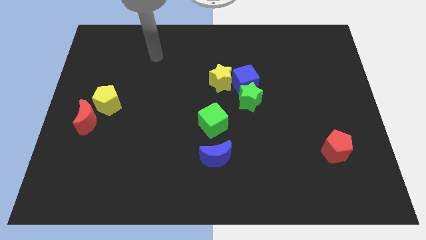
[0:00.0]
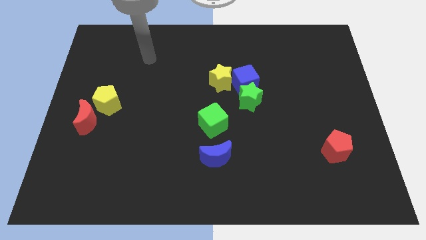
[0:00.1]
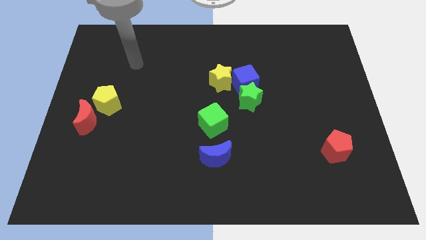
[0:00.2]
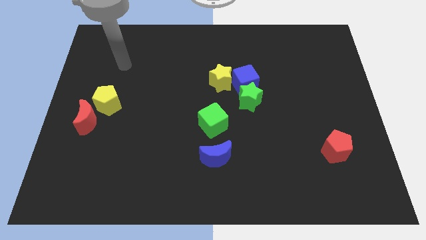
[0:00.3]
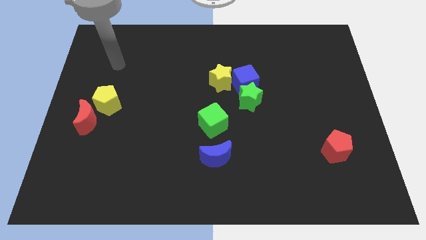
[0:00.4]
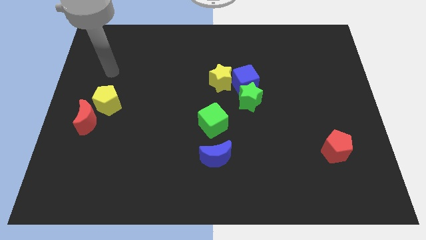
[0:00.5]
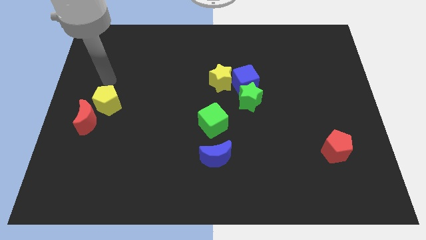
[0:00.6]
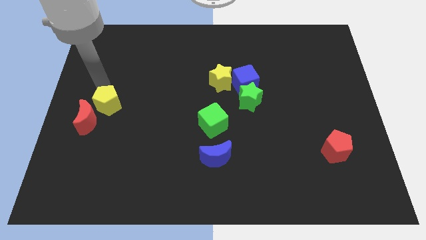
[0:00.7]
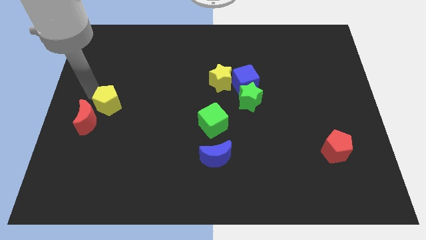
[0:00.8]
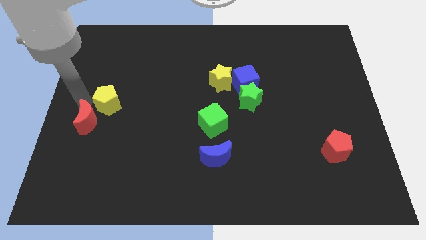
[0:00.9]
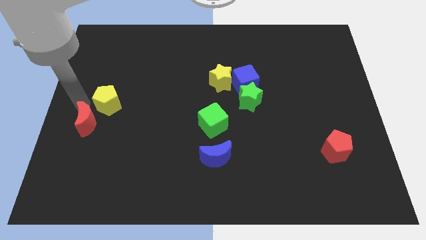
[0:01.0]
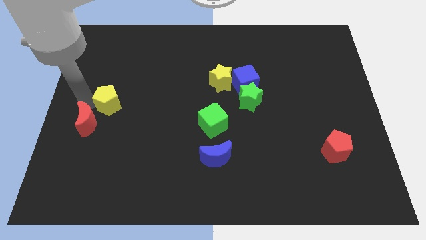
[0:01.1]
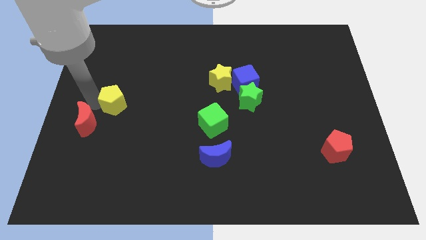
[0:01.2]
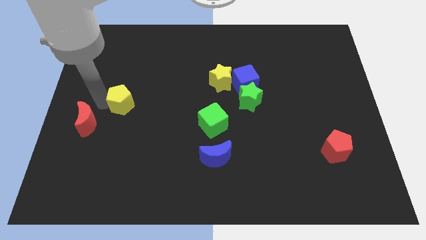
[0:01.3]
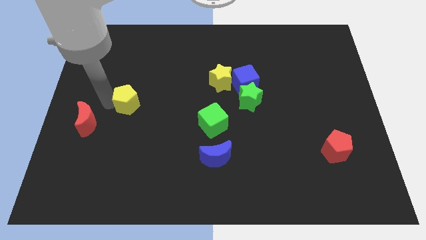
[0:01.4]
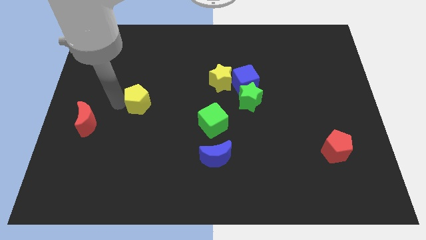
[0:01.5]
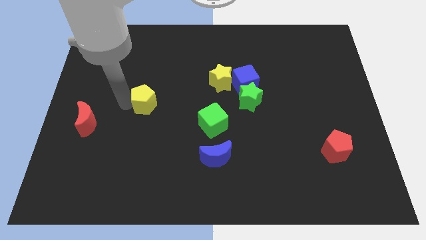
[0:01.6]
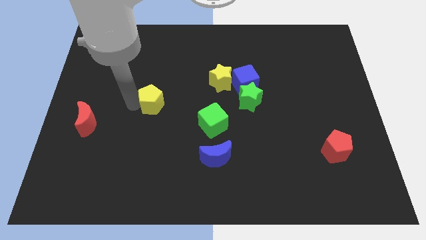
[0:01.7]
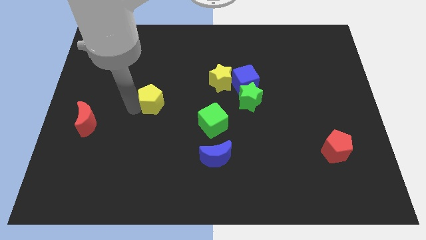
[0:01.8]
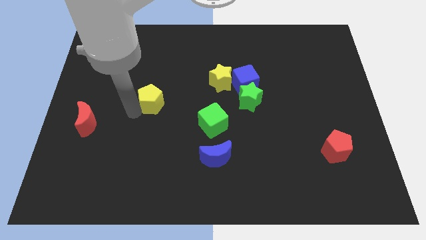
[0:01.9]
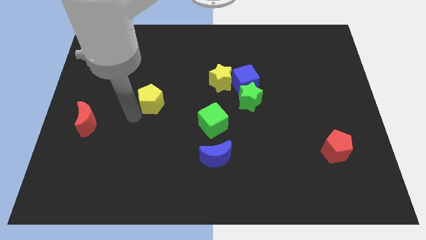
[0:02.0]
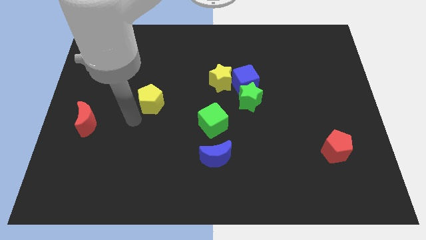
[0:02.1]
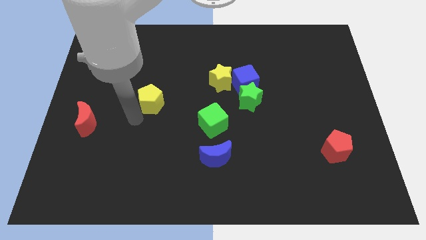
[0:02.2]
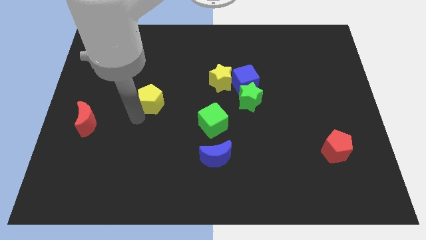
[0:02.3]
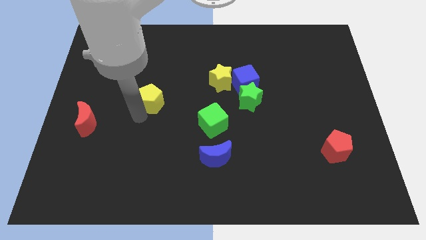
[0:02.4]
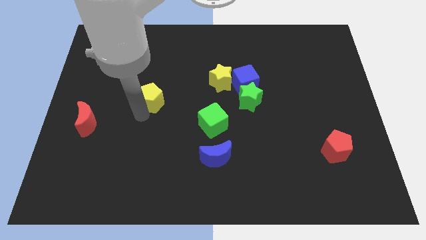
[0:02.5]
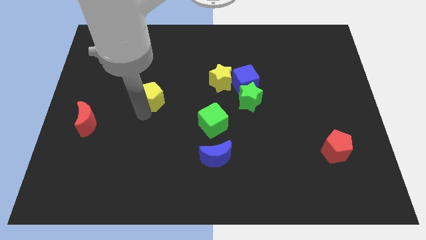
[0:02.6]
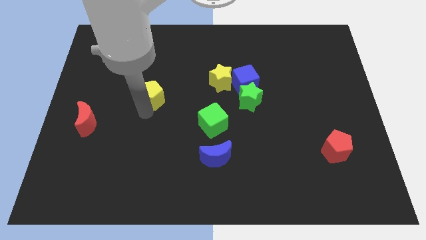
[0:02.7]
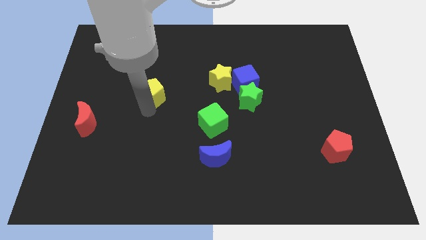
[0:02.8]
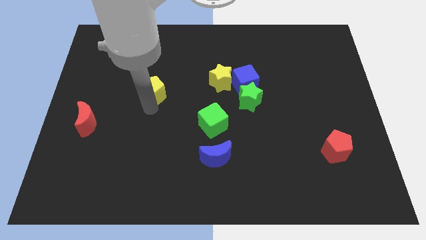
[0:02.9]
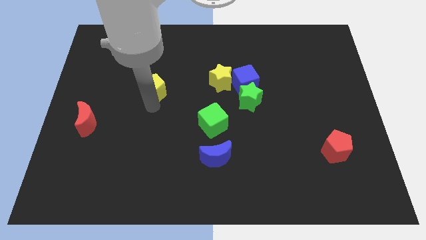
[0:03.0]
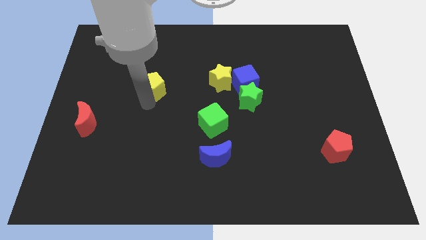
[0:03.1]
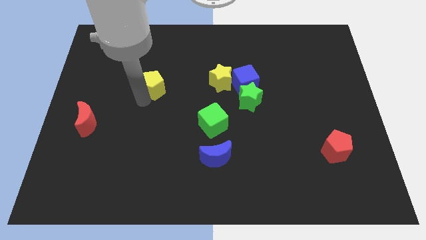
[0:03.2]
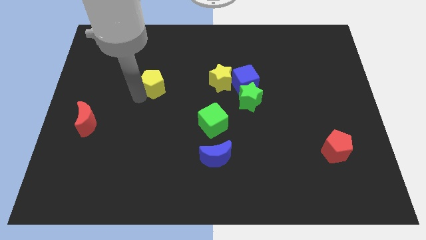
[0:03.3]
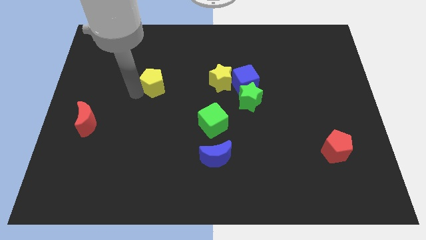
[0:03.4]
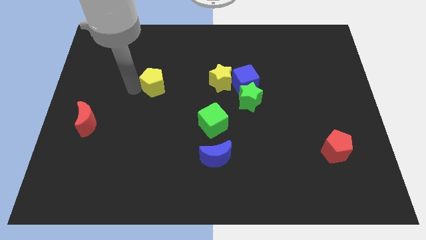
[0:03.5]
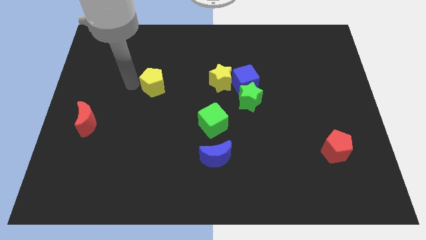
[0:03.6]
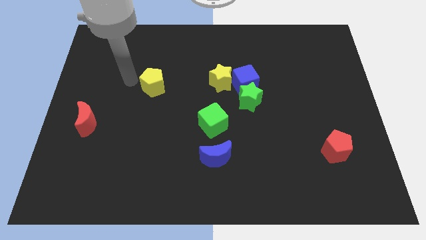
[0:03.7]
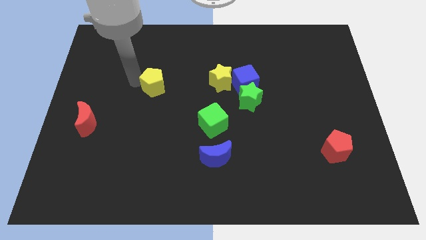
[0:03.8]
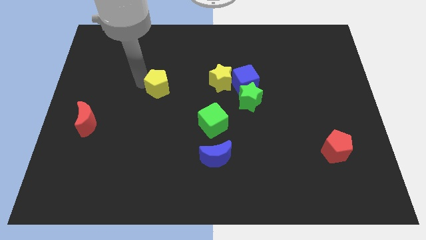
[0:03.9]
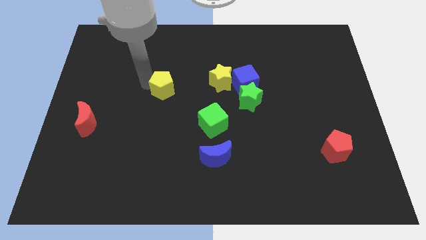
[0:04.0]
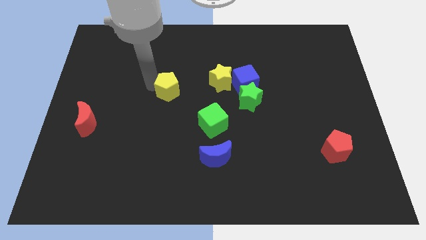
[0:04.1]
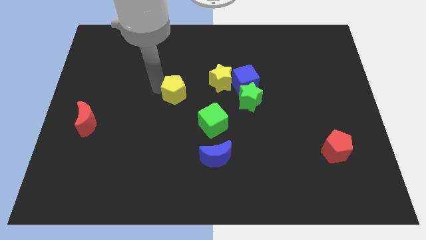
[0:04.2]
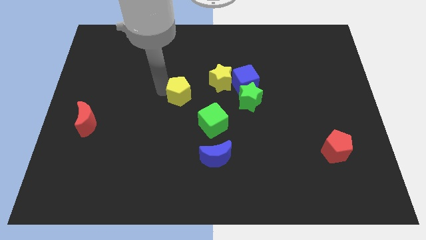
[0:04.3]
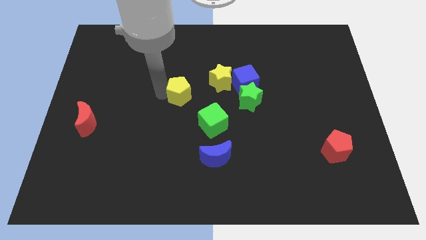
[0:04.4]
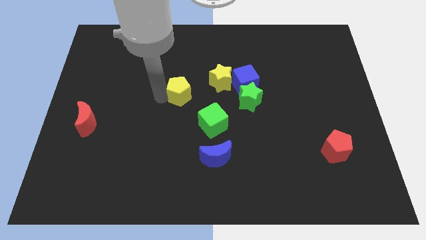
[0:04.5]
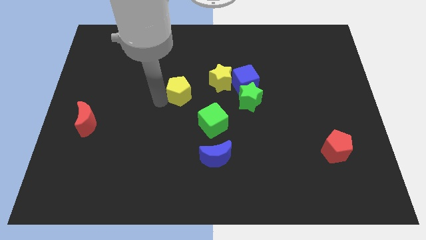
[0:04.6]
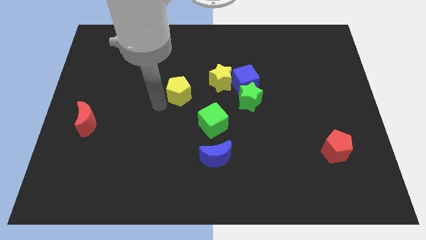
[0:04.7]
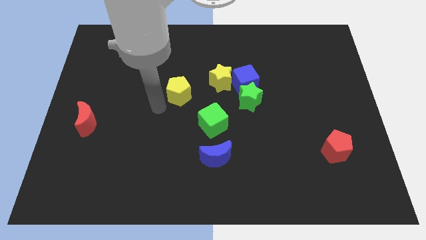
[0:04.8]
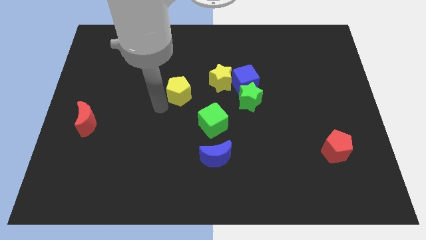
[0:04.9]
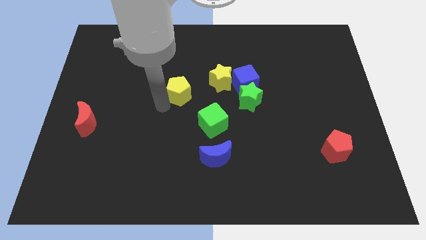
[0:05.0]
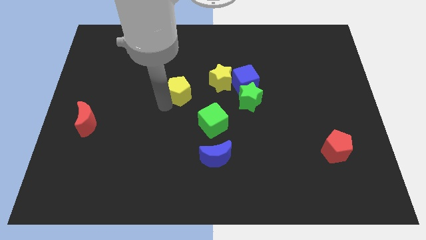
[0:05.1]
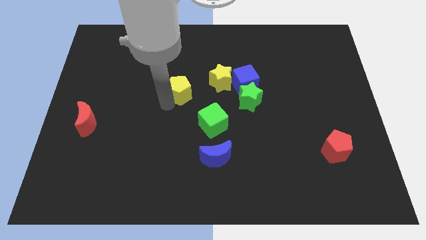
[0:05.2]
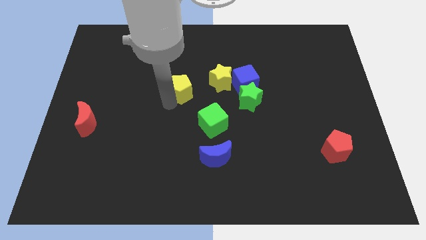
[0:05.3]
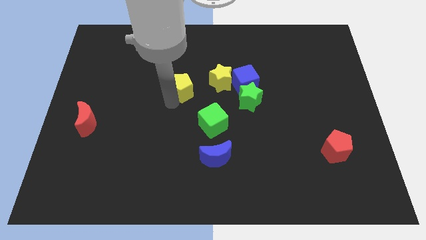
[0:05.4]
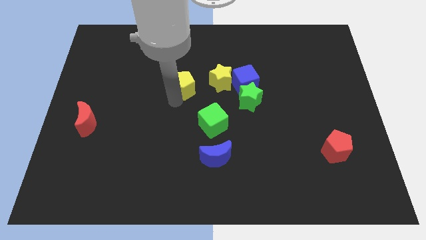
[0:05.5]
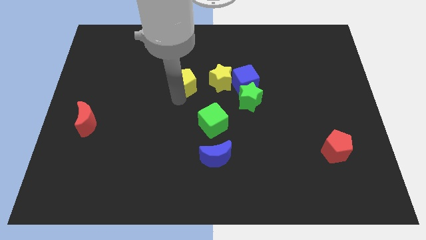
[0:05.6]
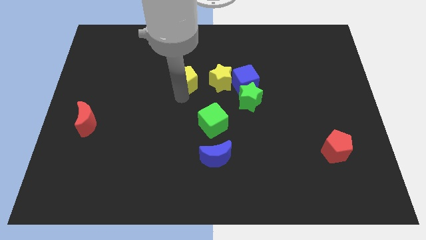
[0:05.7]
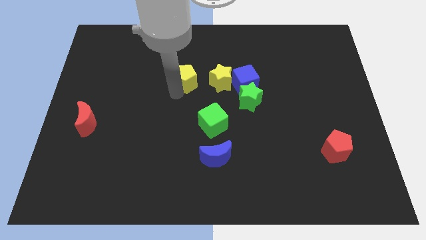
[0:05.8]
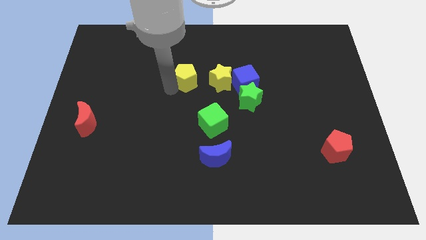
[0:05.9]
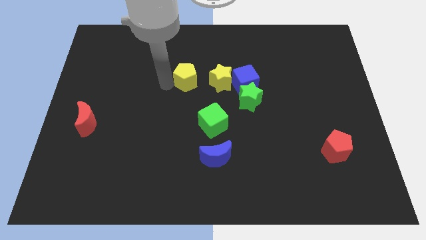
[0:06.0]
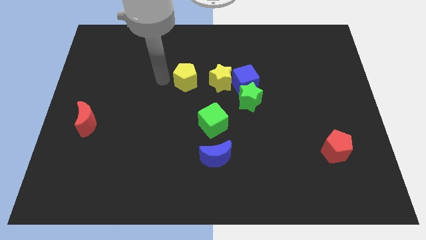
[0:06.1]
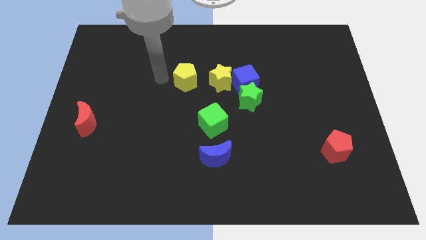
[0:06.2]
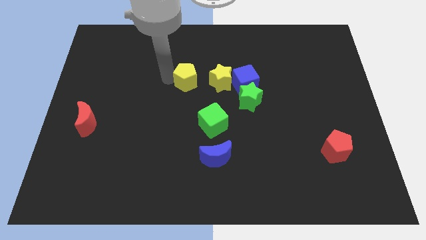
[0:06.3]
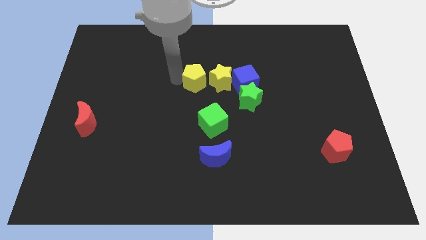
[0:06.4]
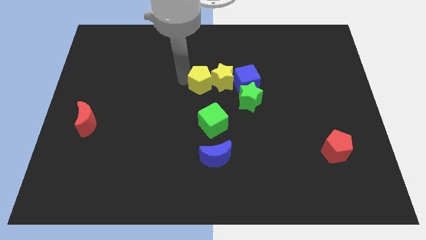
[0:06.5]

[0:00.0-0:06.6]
slide the yellow pentagon close to the yellow star

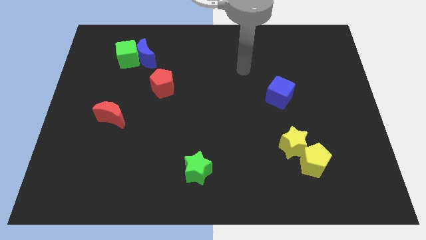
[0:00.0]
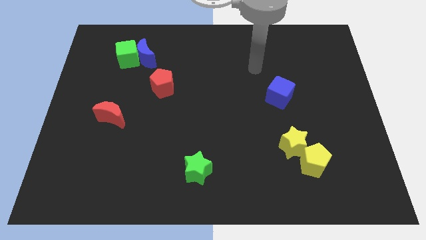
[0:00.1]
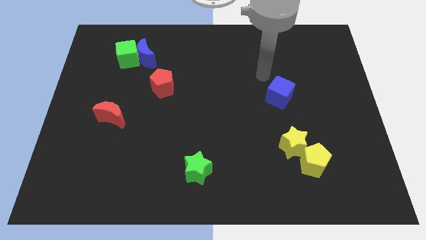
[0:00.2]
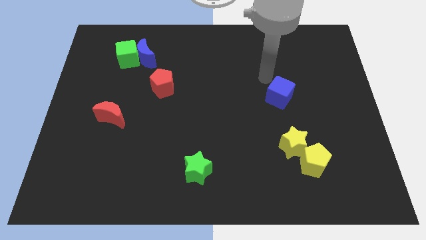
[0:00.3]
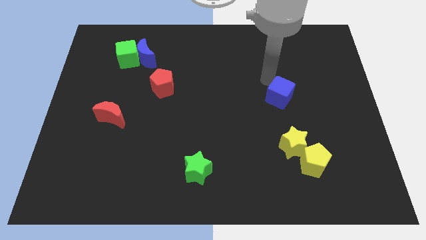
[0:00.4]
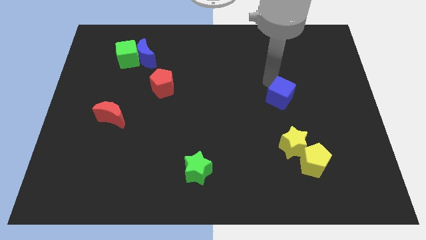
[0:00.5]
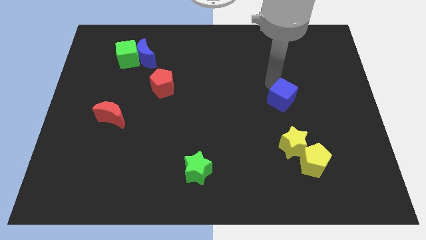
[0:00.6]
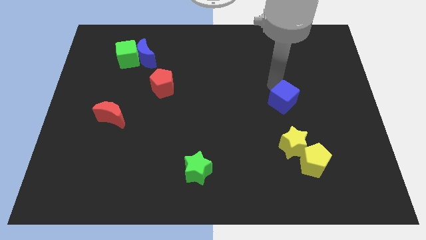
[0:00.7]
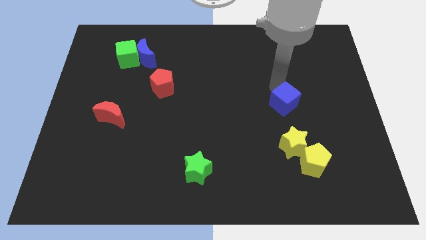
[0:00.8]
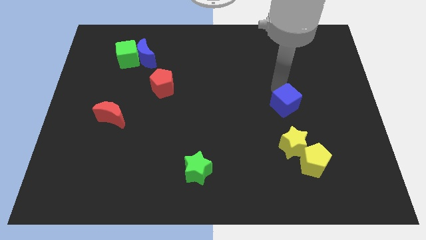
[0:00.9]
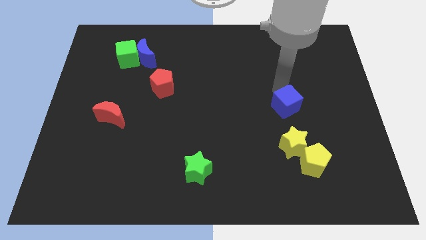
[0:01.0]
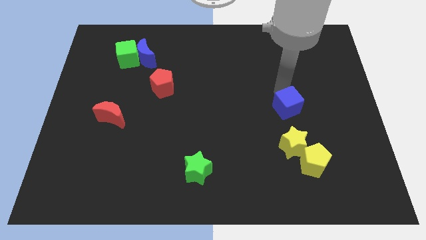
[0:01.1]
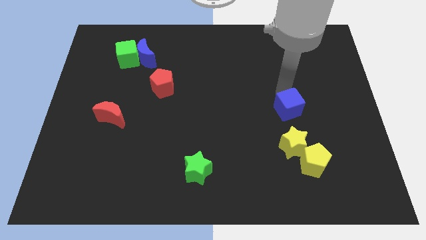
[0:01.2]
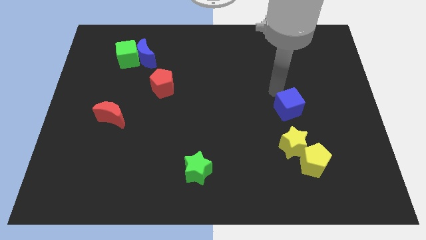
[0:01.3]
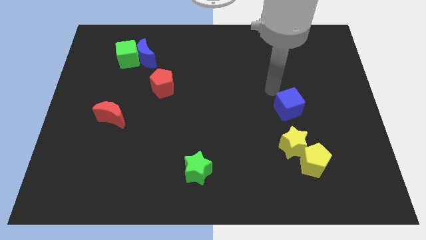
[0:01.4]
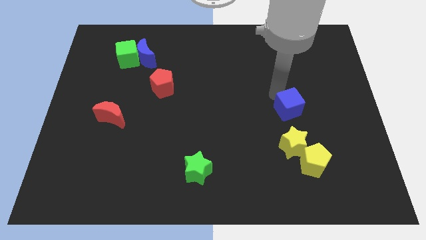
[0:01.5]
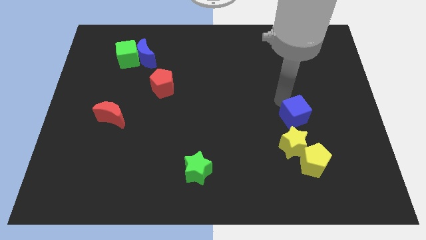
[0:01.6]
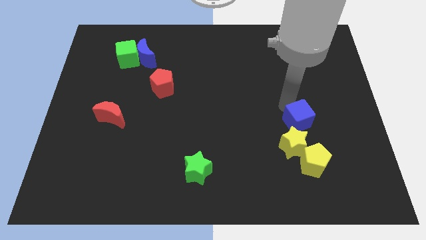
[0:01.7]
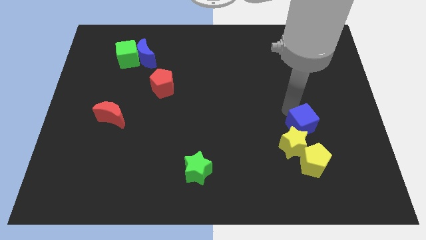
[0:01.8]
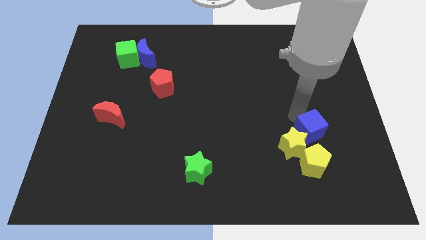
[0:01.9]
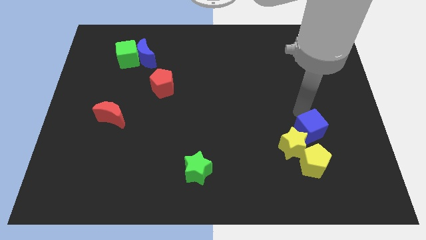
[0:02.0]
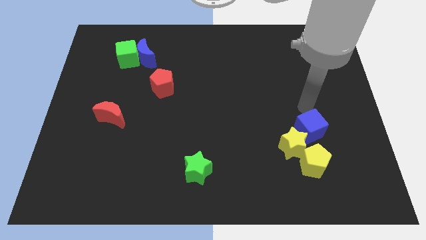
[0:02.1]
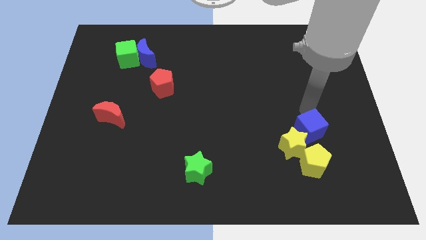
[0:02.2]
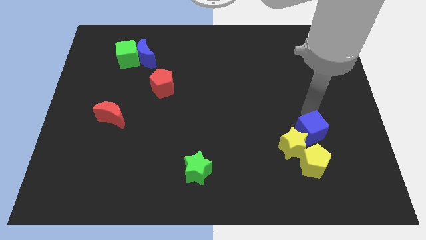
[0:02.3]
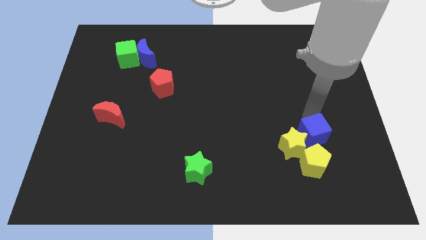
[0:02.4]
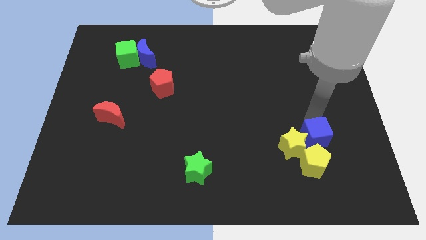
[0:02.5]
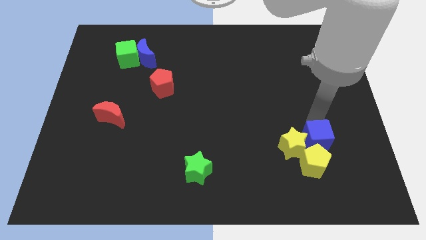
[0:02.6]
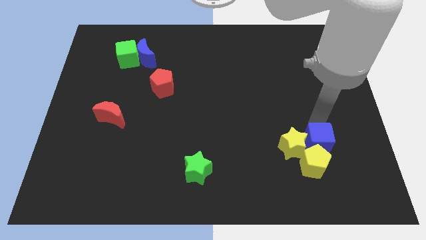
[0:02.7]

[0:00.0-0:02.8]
put the blue cube towards the yellow pentagon
